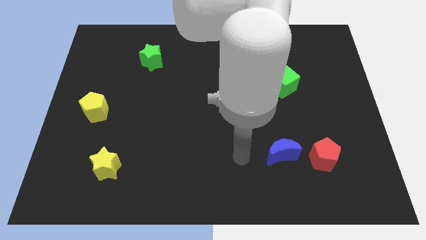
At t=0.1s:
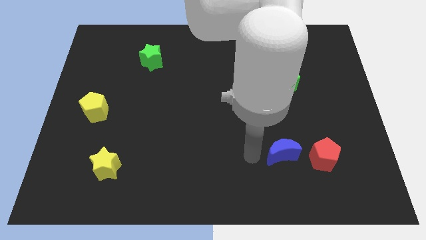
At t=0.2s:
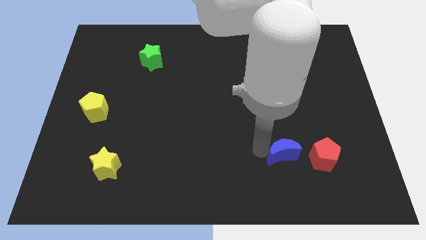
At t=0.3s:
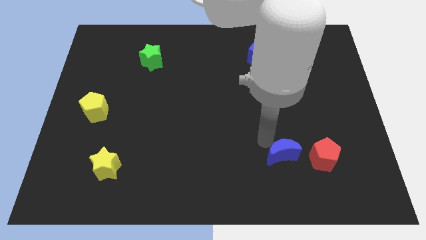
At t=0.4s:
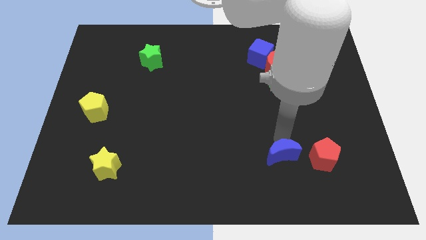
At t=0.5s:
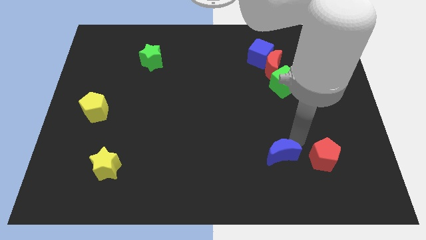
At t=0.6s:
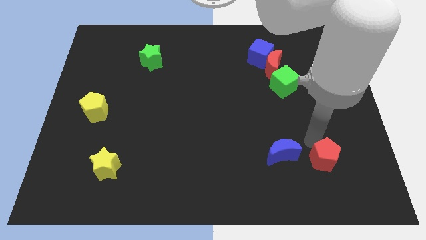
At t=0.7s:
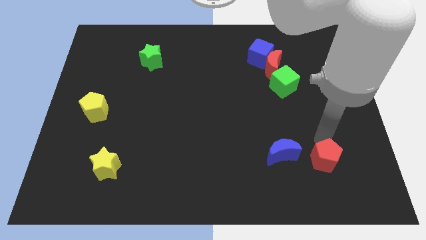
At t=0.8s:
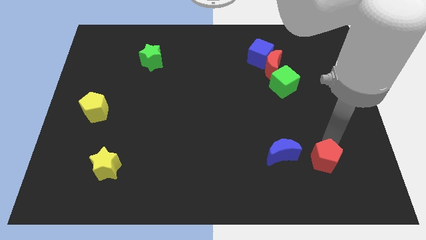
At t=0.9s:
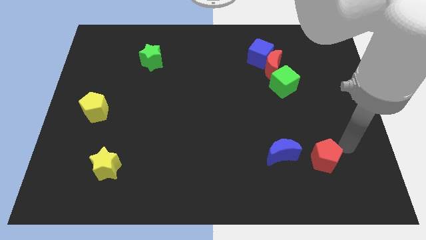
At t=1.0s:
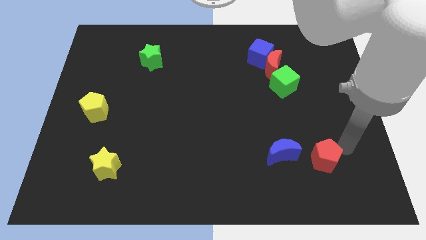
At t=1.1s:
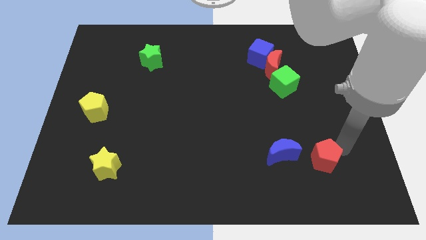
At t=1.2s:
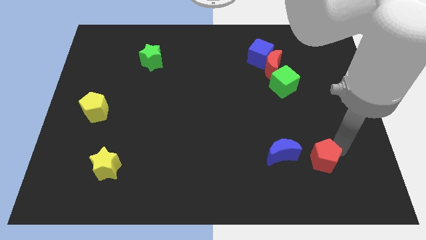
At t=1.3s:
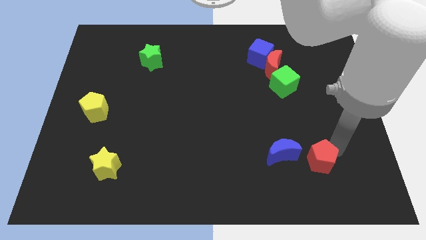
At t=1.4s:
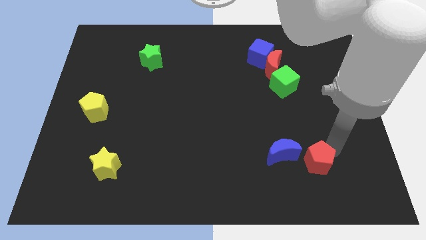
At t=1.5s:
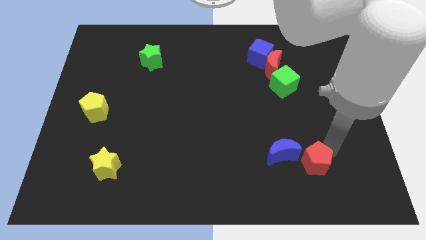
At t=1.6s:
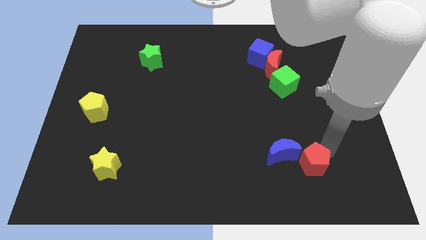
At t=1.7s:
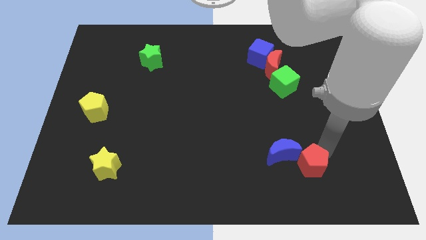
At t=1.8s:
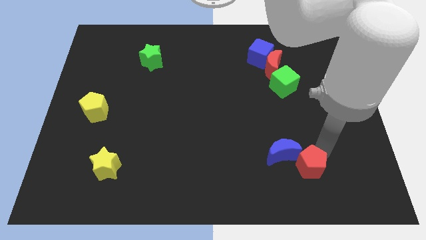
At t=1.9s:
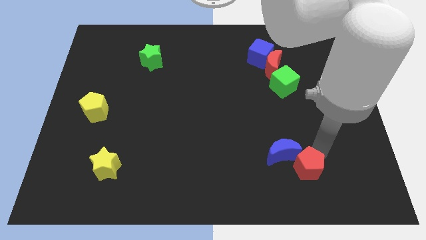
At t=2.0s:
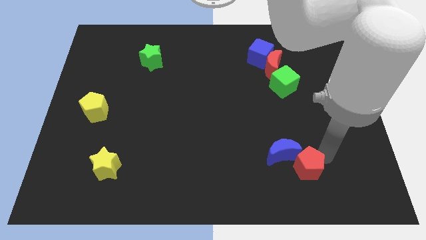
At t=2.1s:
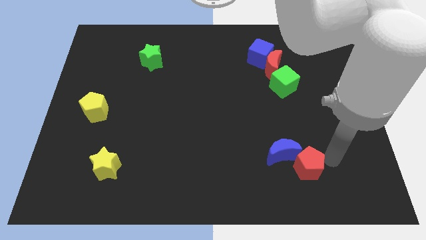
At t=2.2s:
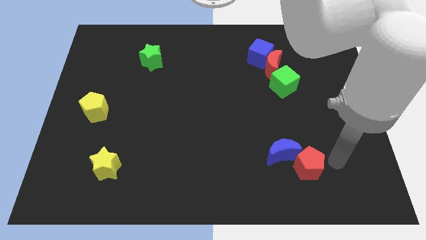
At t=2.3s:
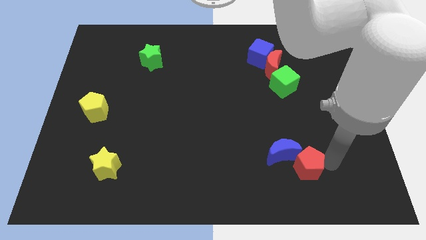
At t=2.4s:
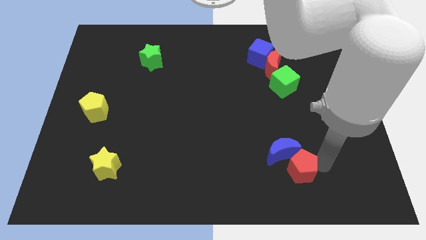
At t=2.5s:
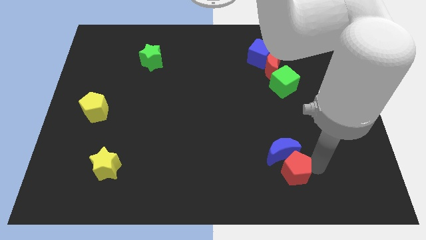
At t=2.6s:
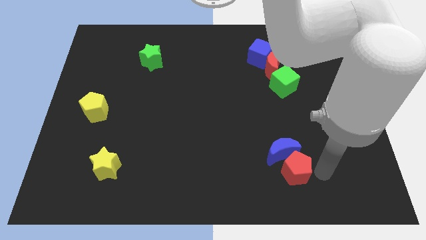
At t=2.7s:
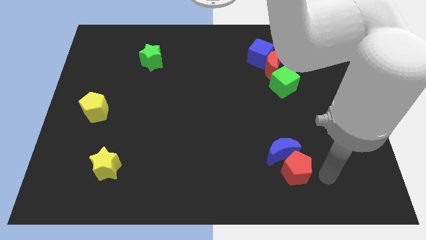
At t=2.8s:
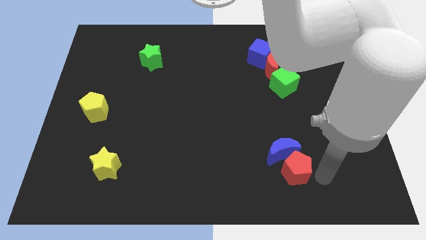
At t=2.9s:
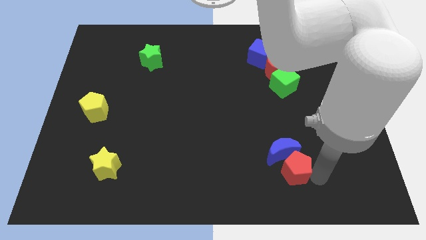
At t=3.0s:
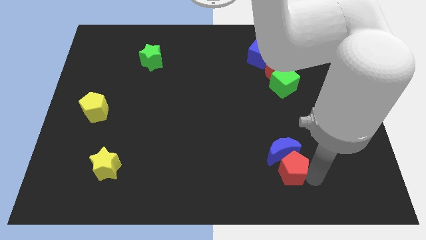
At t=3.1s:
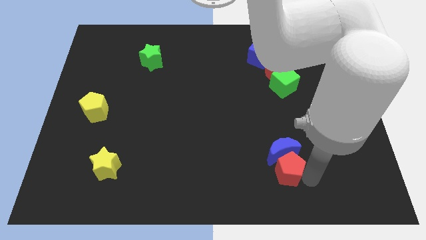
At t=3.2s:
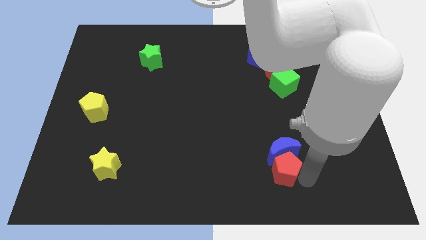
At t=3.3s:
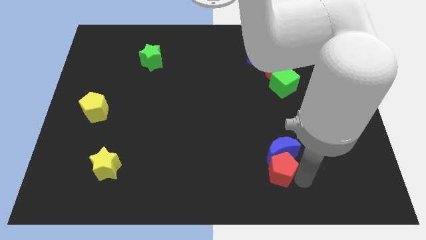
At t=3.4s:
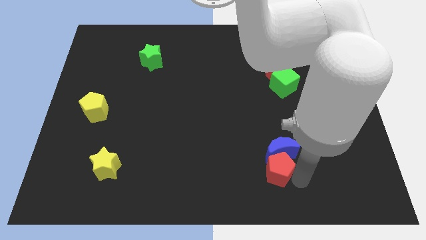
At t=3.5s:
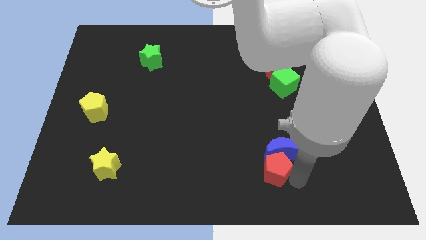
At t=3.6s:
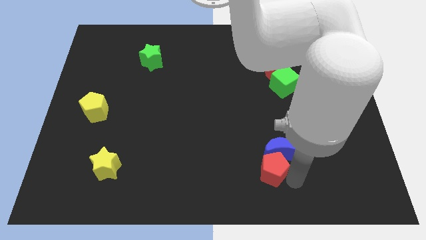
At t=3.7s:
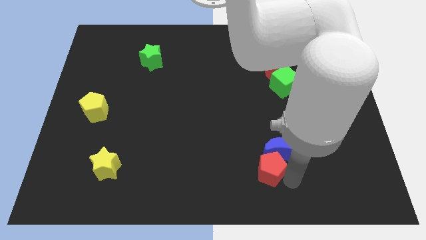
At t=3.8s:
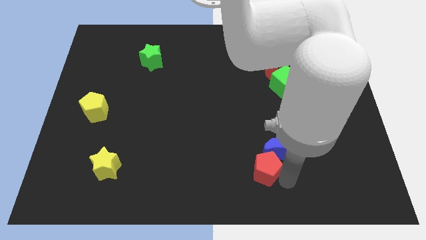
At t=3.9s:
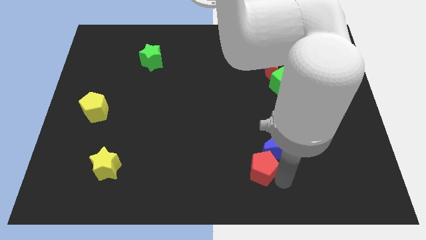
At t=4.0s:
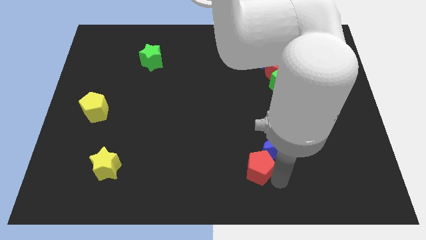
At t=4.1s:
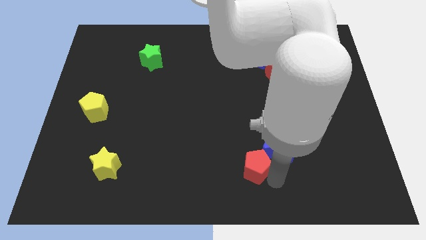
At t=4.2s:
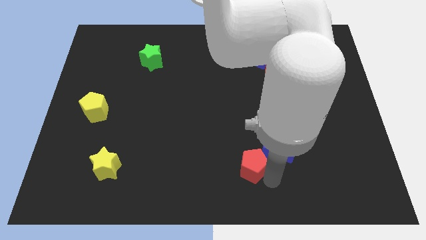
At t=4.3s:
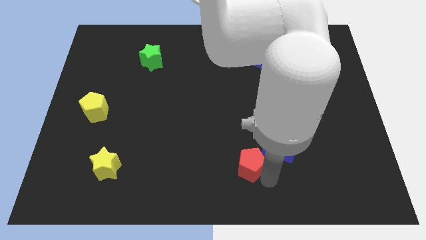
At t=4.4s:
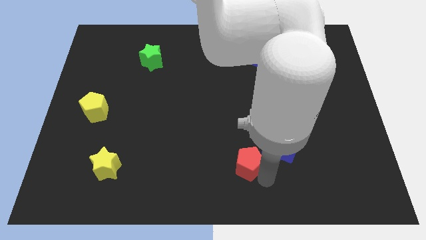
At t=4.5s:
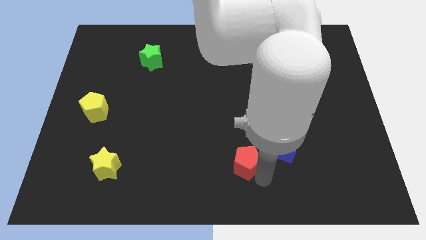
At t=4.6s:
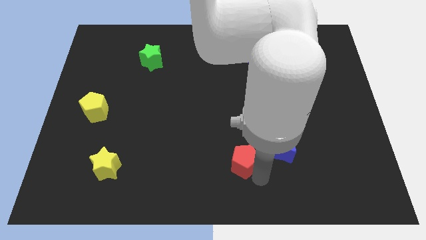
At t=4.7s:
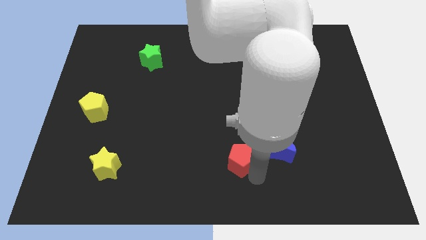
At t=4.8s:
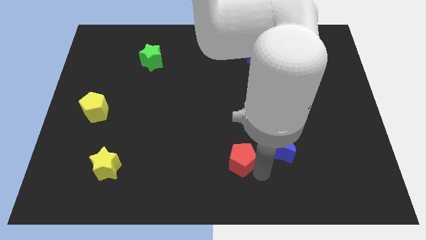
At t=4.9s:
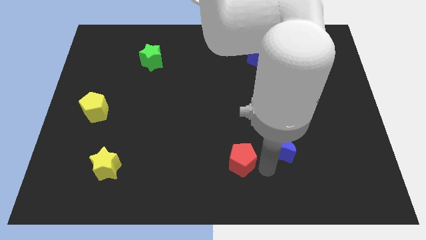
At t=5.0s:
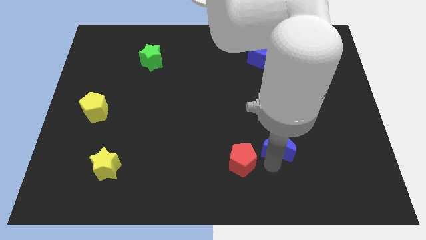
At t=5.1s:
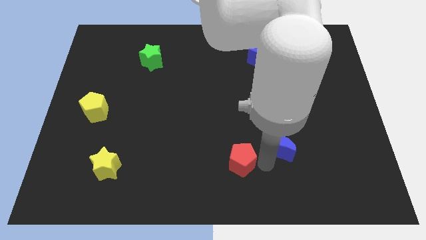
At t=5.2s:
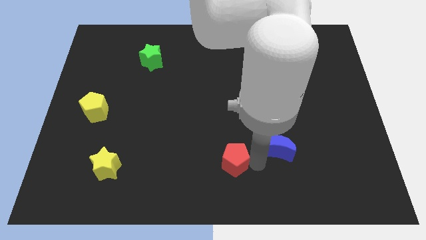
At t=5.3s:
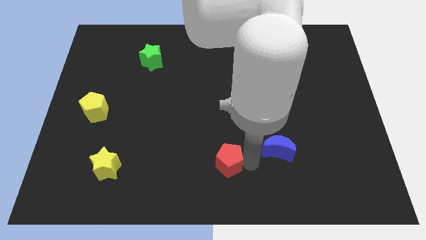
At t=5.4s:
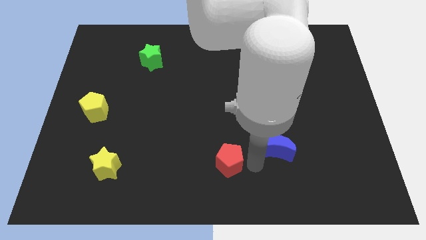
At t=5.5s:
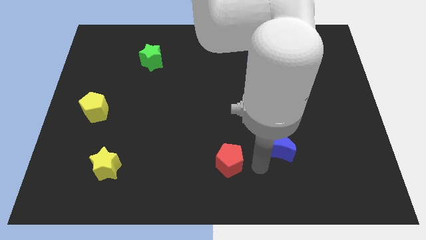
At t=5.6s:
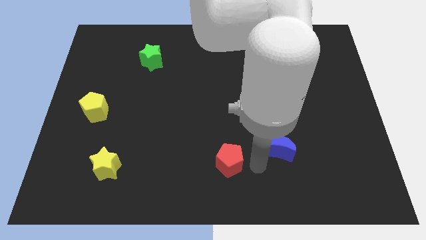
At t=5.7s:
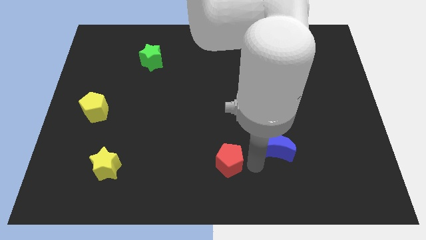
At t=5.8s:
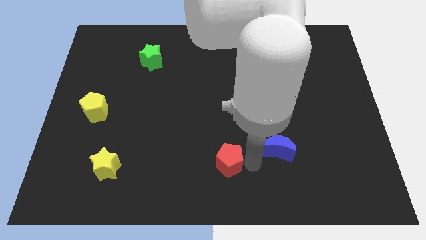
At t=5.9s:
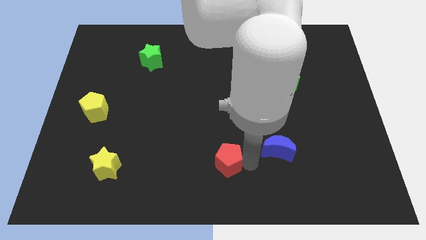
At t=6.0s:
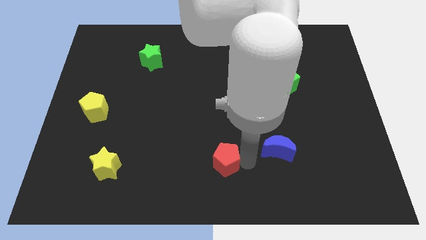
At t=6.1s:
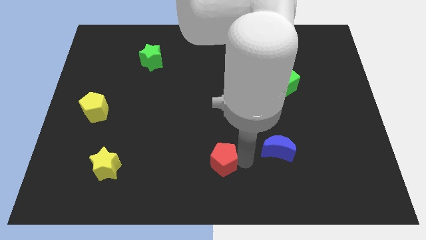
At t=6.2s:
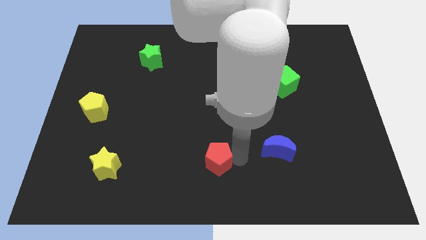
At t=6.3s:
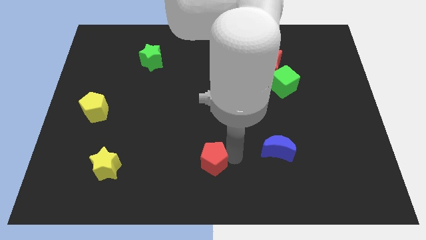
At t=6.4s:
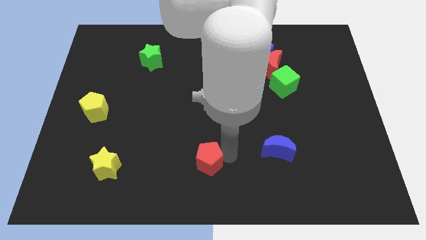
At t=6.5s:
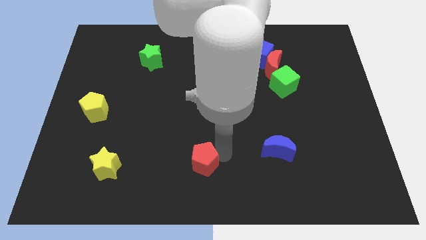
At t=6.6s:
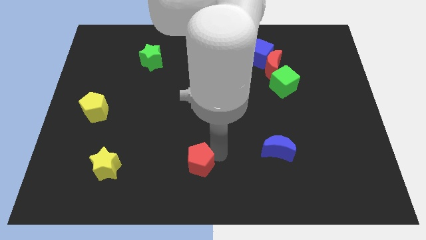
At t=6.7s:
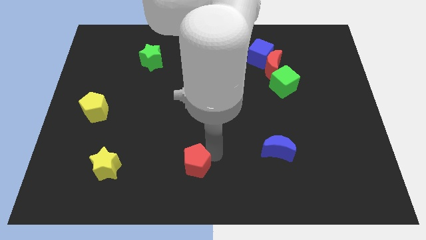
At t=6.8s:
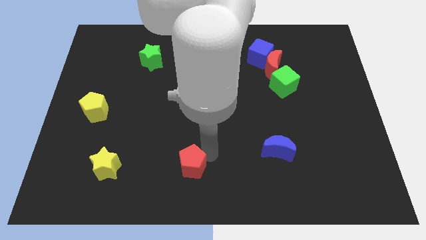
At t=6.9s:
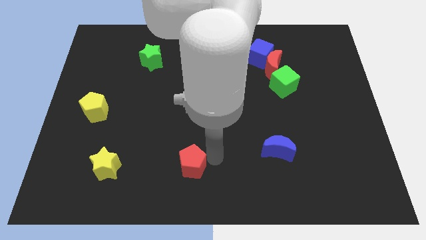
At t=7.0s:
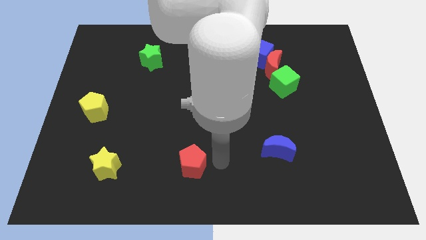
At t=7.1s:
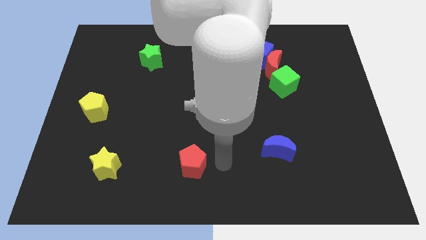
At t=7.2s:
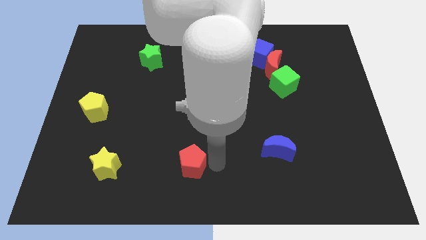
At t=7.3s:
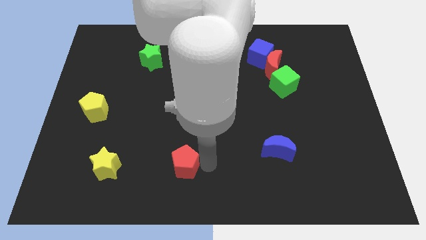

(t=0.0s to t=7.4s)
push the red pentagon to the right of the yellow star
